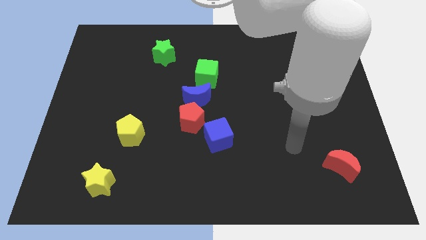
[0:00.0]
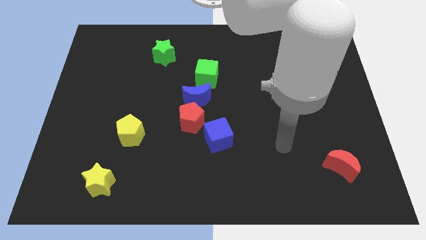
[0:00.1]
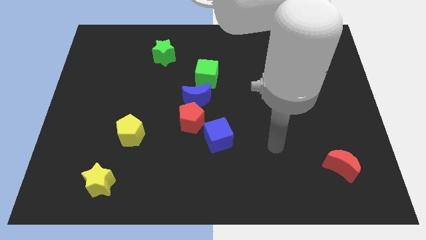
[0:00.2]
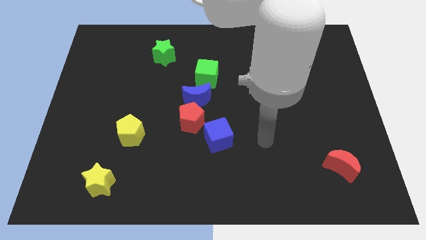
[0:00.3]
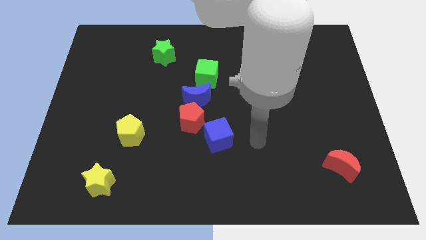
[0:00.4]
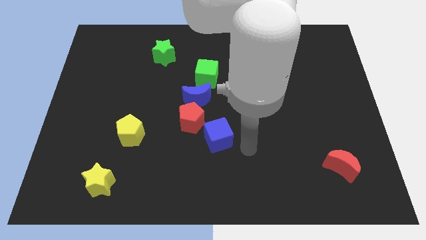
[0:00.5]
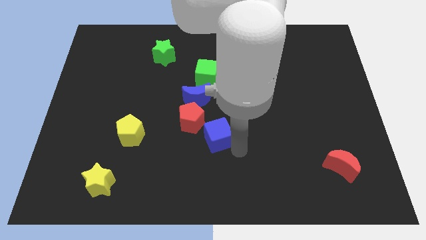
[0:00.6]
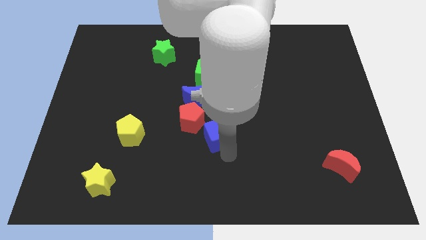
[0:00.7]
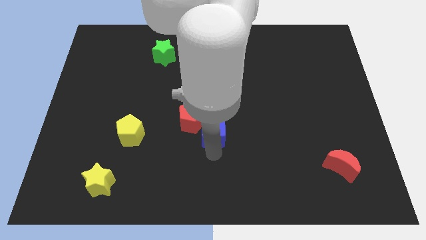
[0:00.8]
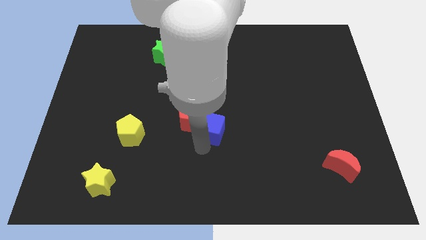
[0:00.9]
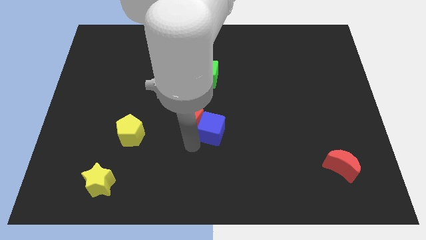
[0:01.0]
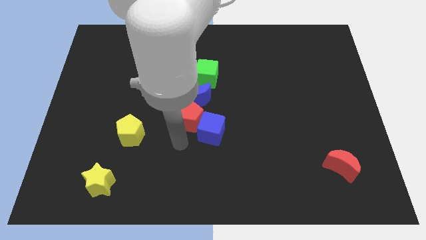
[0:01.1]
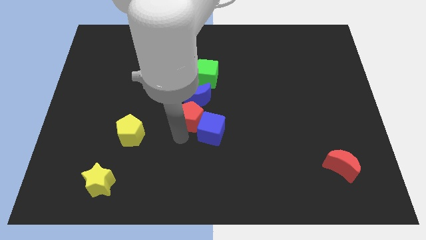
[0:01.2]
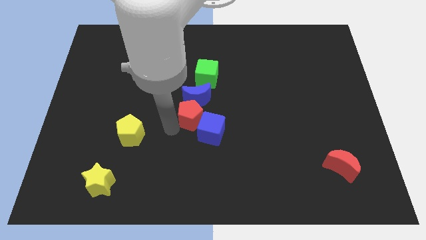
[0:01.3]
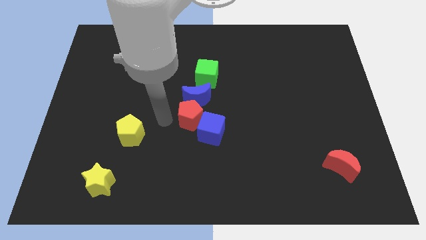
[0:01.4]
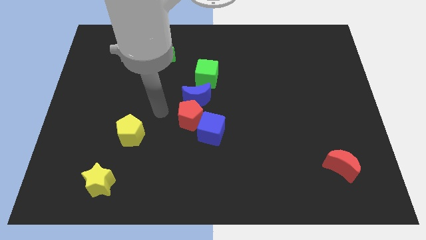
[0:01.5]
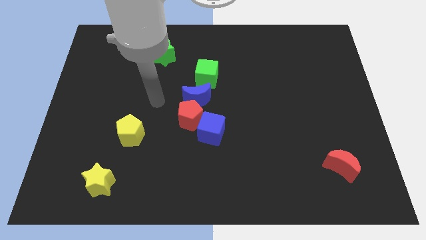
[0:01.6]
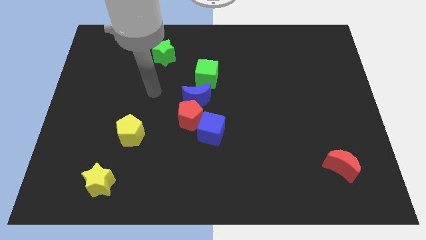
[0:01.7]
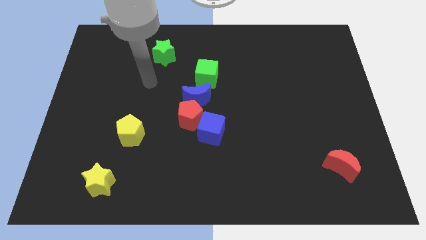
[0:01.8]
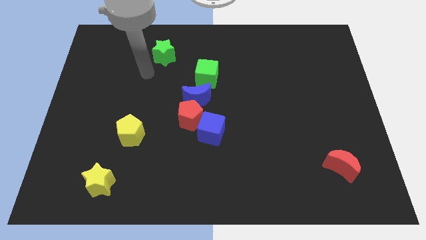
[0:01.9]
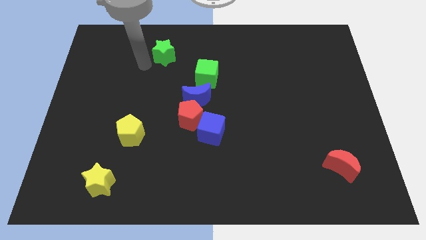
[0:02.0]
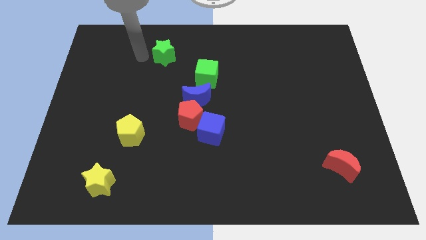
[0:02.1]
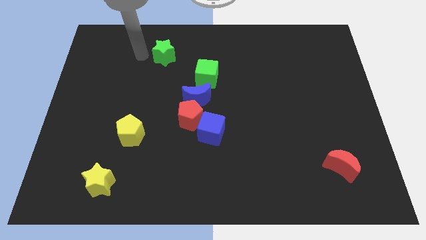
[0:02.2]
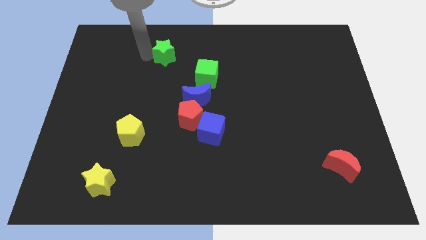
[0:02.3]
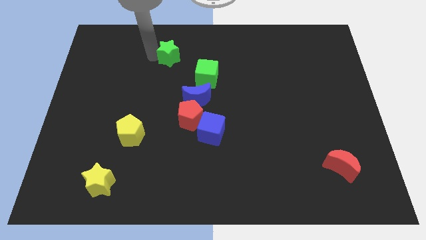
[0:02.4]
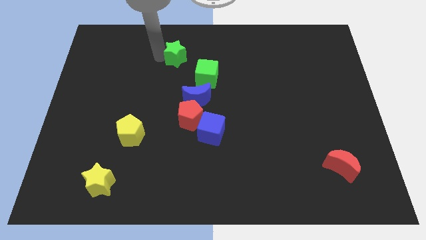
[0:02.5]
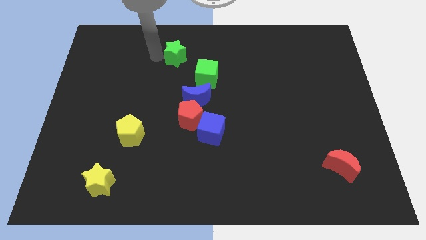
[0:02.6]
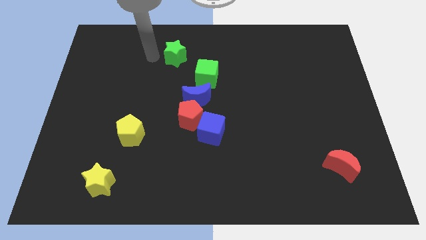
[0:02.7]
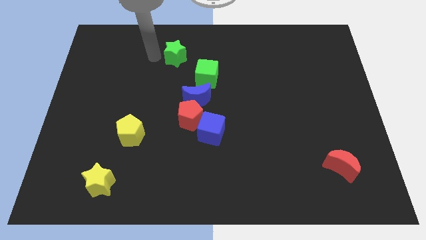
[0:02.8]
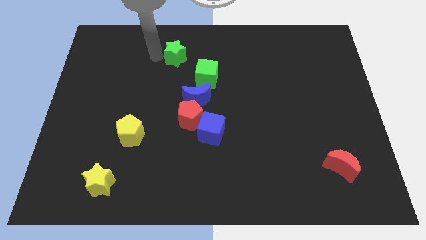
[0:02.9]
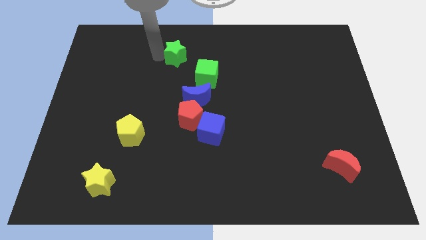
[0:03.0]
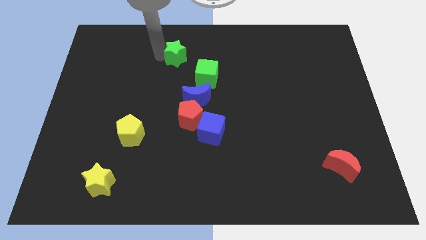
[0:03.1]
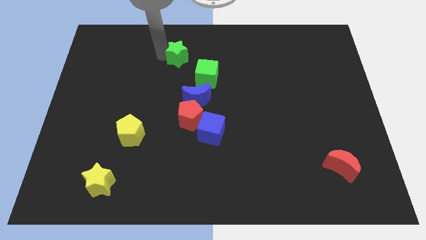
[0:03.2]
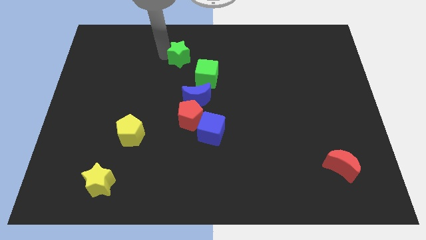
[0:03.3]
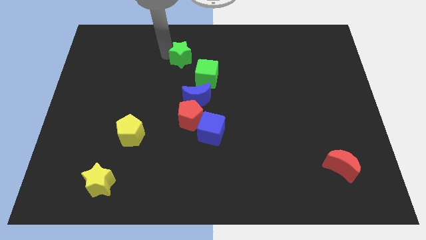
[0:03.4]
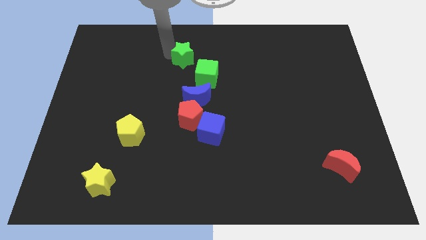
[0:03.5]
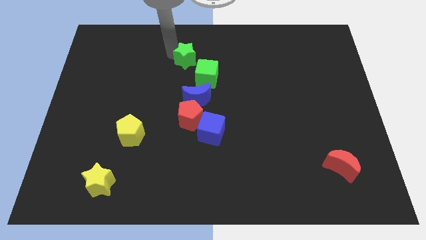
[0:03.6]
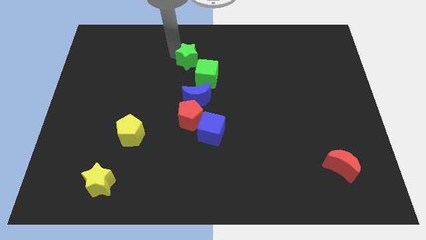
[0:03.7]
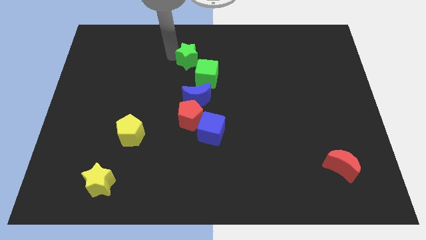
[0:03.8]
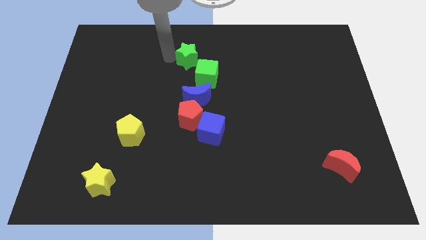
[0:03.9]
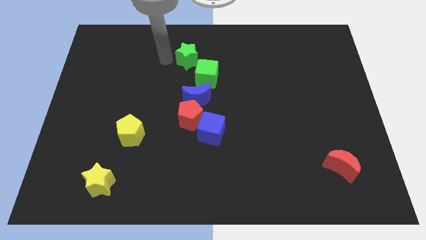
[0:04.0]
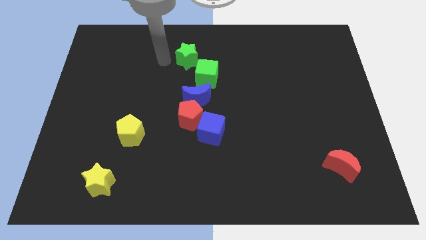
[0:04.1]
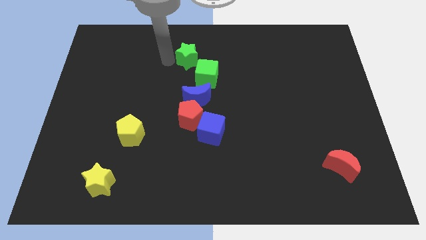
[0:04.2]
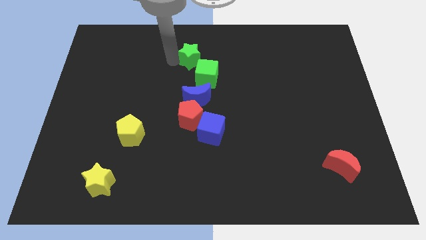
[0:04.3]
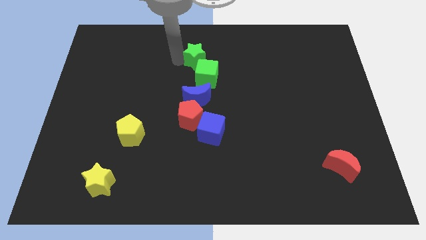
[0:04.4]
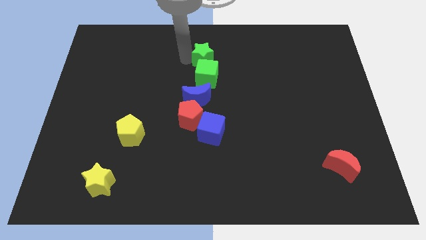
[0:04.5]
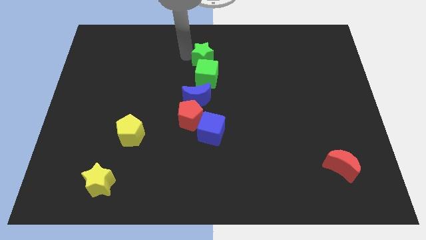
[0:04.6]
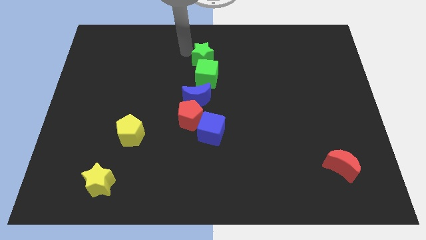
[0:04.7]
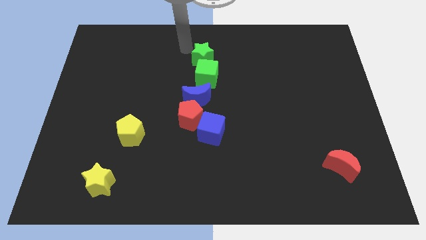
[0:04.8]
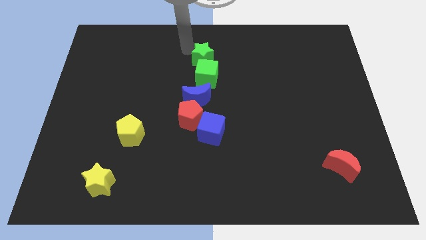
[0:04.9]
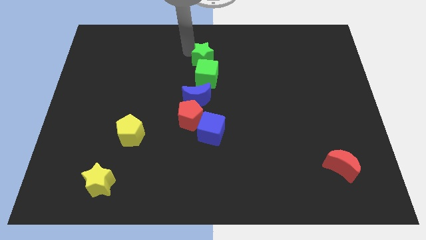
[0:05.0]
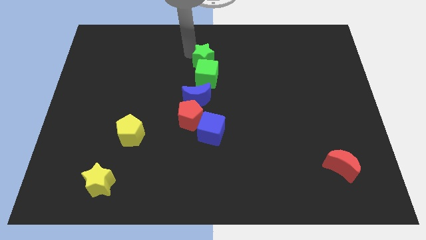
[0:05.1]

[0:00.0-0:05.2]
slightly push the green star down and right diagonally

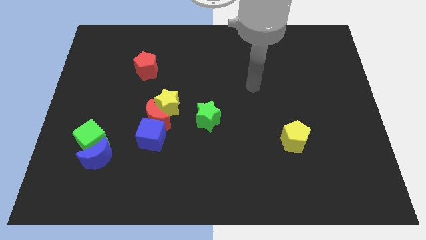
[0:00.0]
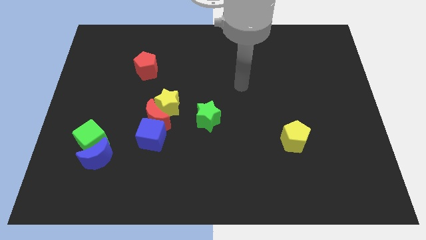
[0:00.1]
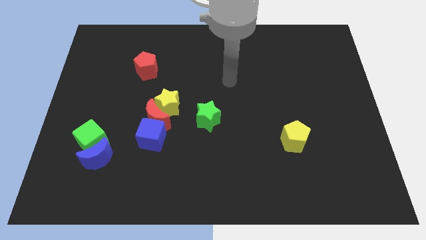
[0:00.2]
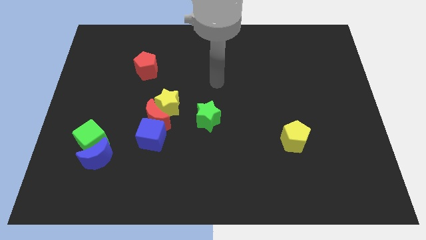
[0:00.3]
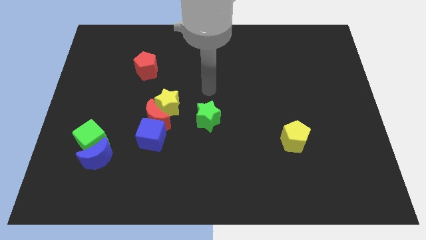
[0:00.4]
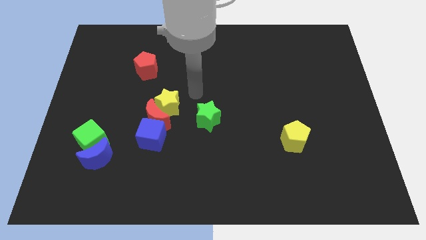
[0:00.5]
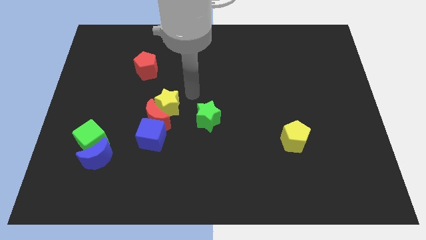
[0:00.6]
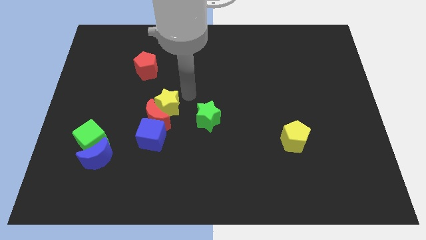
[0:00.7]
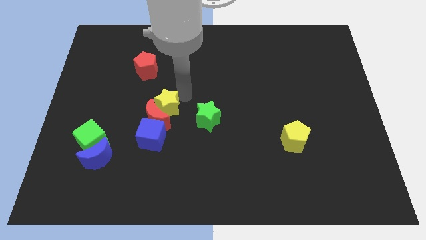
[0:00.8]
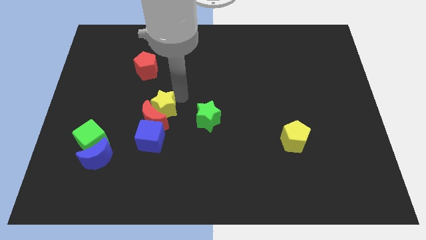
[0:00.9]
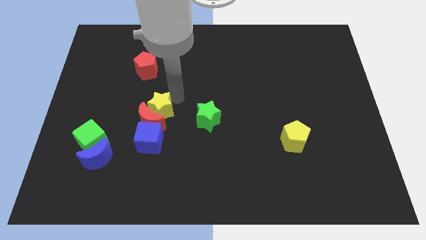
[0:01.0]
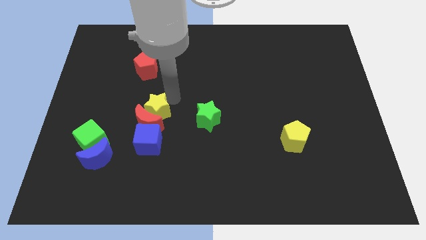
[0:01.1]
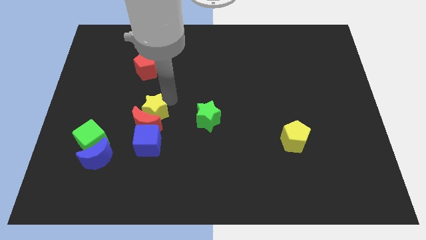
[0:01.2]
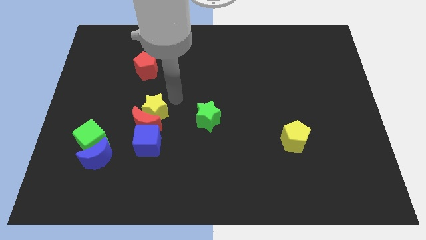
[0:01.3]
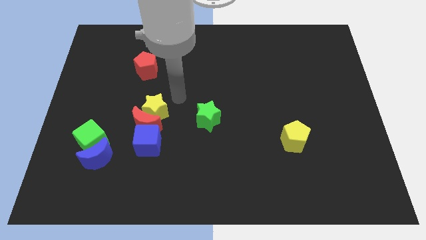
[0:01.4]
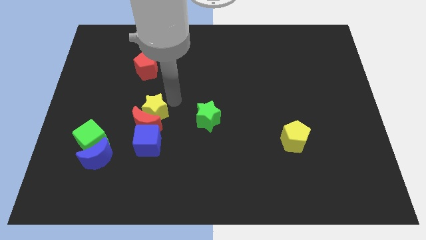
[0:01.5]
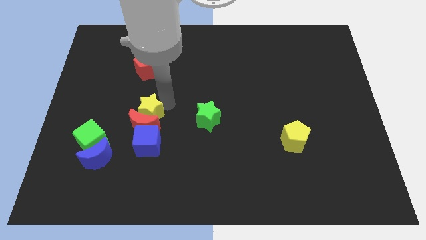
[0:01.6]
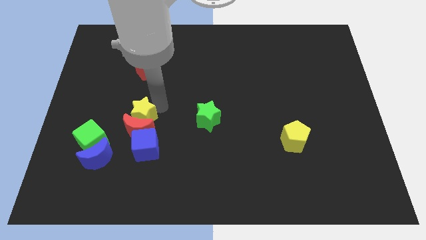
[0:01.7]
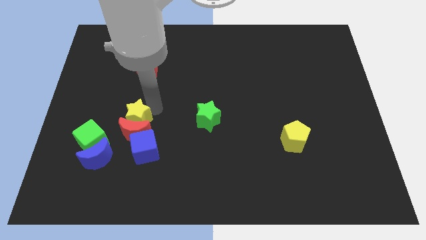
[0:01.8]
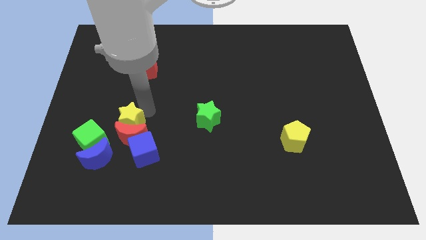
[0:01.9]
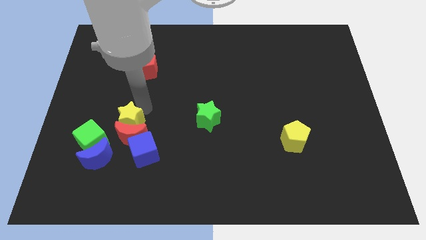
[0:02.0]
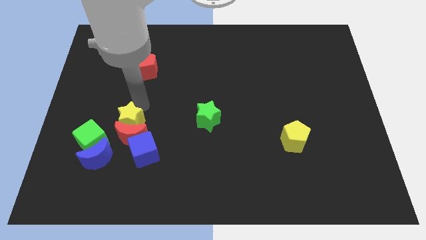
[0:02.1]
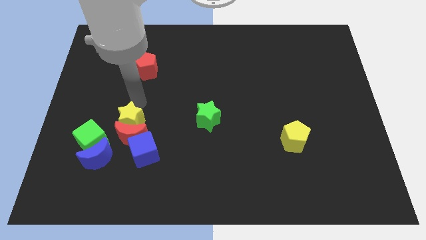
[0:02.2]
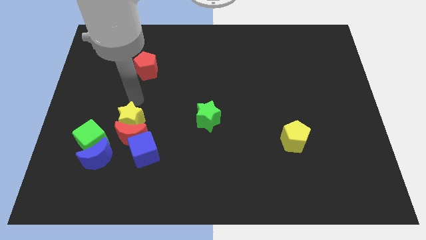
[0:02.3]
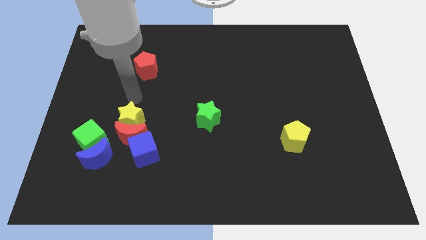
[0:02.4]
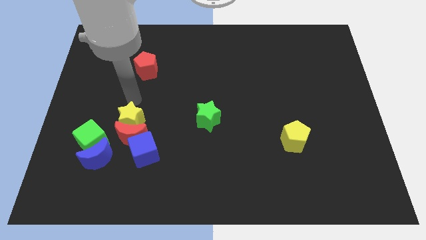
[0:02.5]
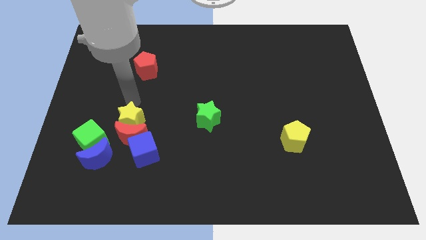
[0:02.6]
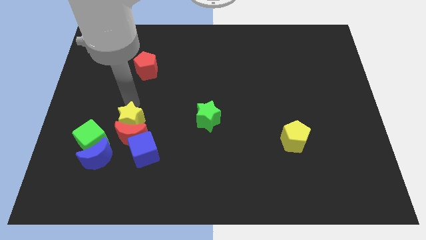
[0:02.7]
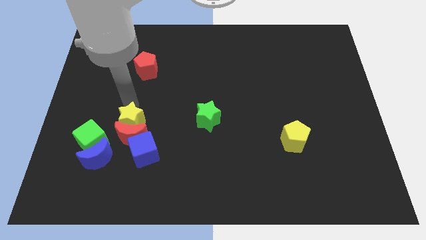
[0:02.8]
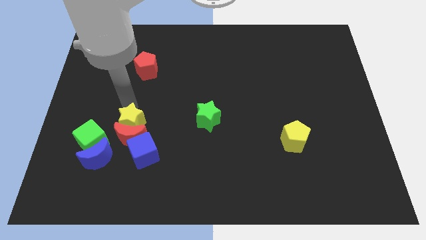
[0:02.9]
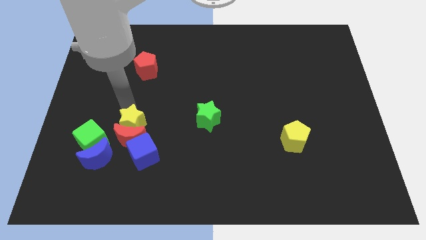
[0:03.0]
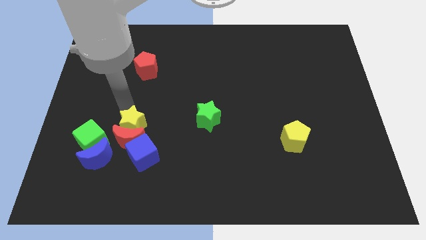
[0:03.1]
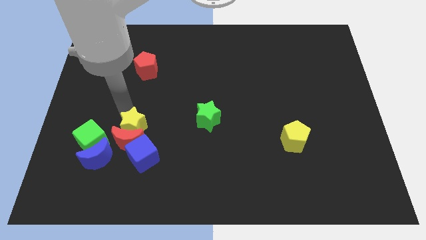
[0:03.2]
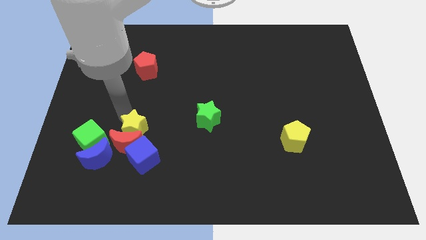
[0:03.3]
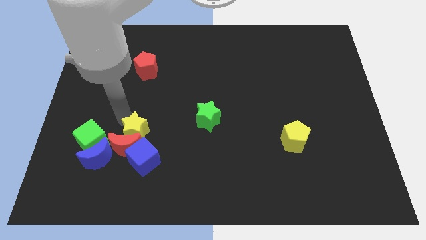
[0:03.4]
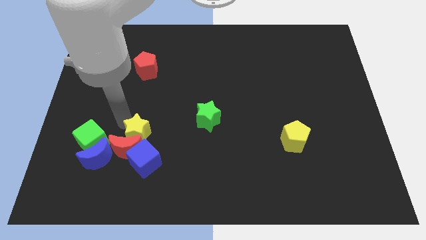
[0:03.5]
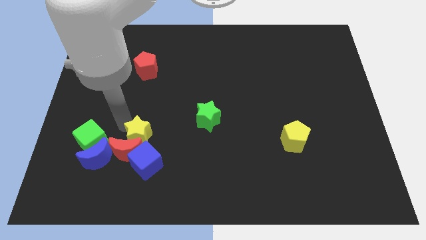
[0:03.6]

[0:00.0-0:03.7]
push the yellow star somewhat downwards
